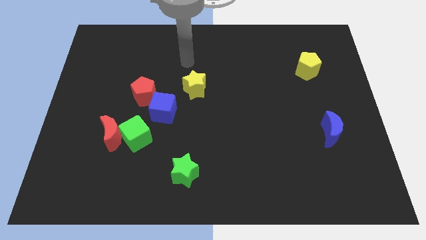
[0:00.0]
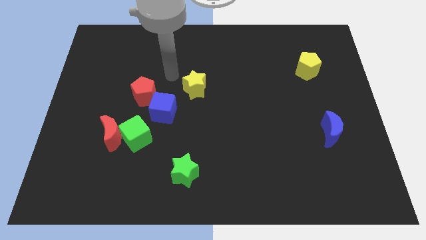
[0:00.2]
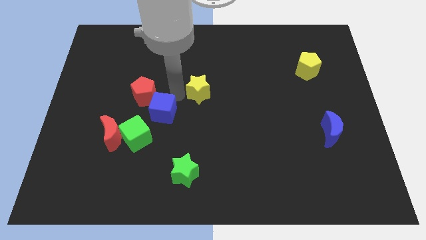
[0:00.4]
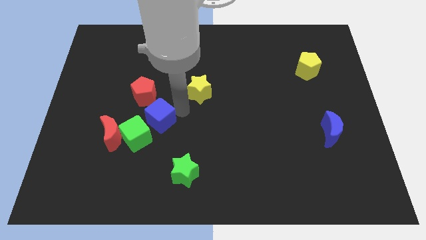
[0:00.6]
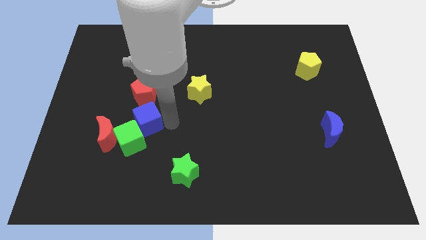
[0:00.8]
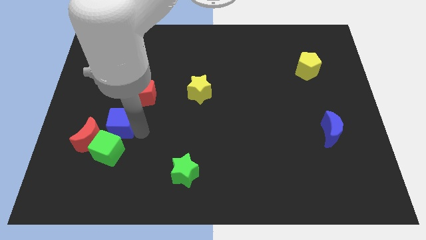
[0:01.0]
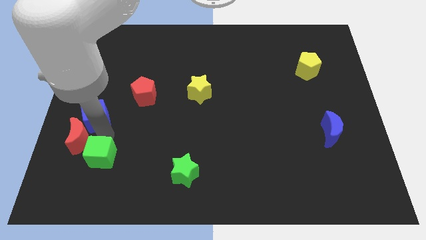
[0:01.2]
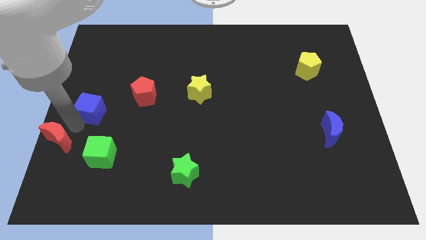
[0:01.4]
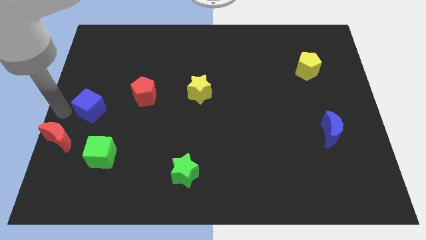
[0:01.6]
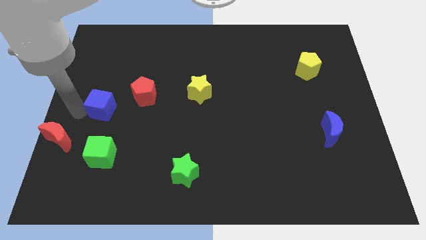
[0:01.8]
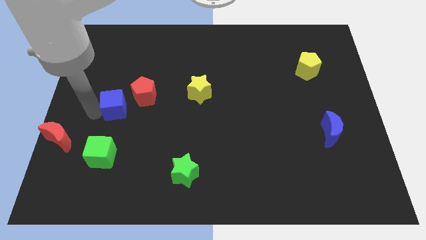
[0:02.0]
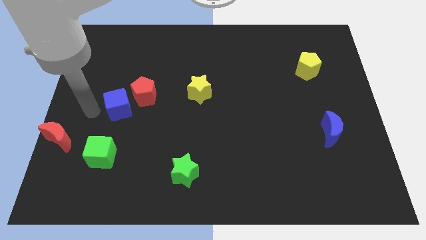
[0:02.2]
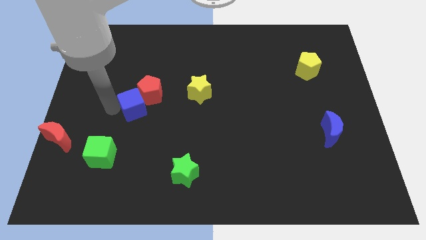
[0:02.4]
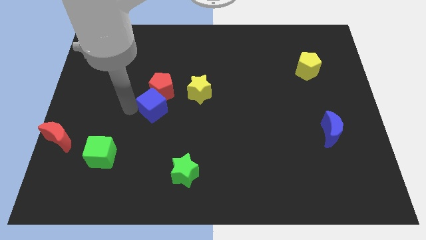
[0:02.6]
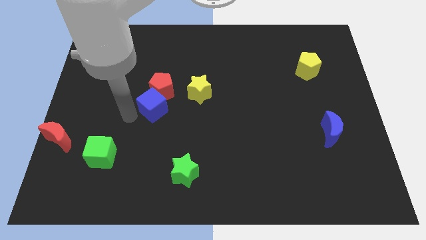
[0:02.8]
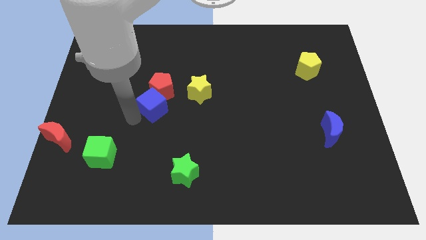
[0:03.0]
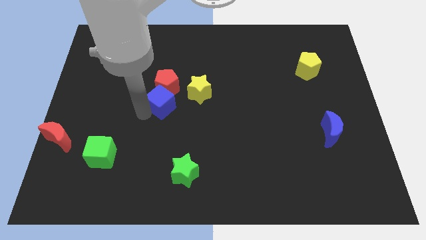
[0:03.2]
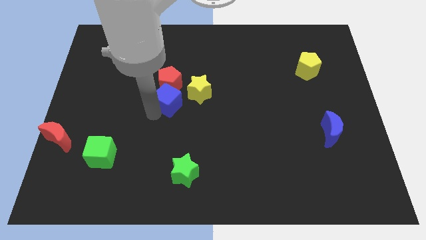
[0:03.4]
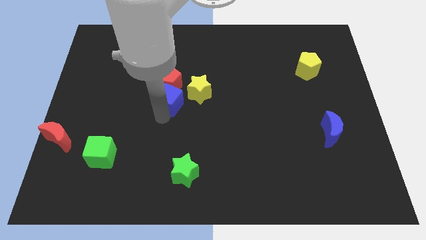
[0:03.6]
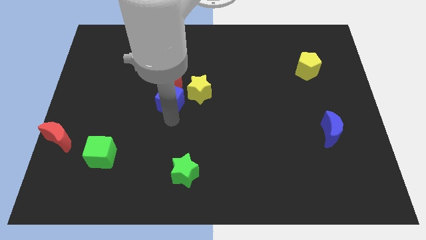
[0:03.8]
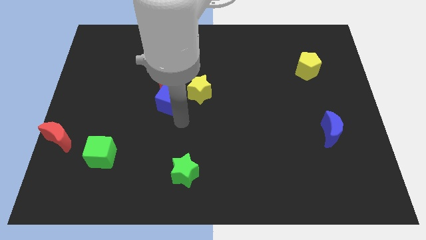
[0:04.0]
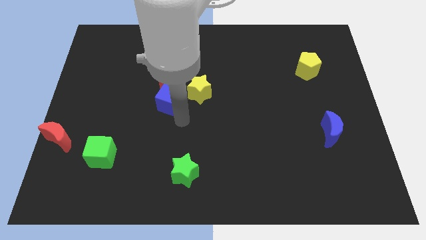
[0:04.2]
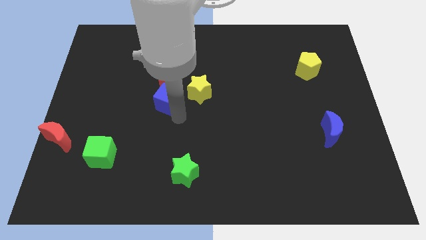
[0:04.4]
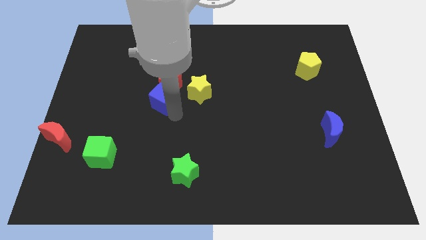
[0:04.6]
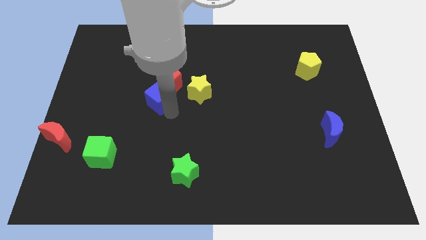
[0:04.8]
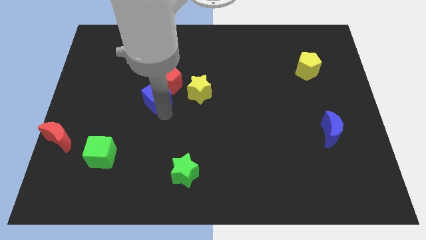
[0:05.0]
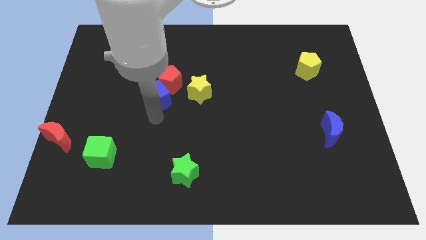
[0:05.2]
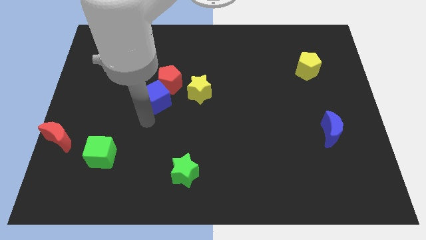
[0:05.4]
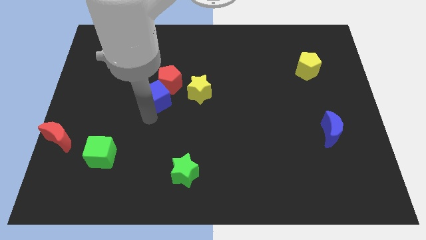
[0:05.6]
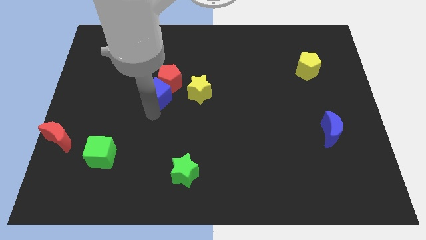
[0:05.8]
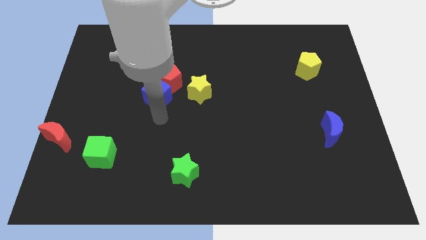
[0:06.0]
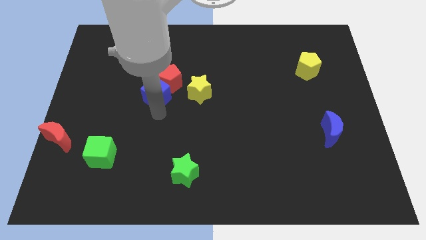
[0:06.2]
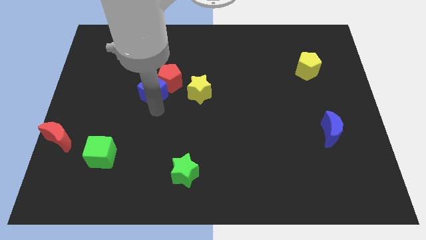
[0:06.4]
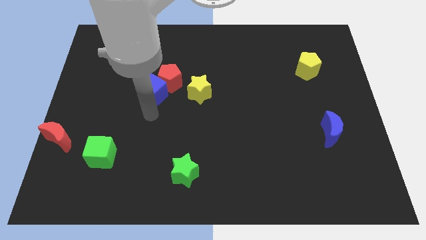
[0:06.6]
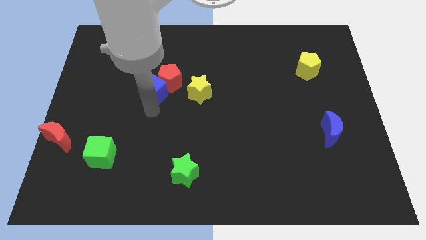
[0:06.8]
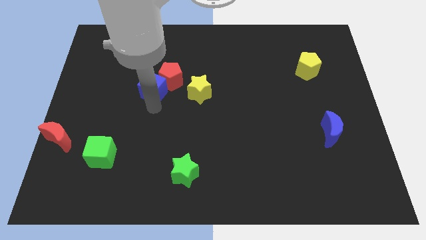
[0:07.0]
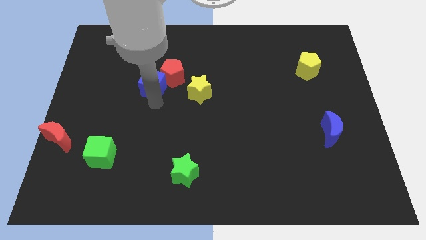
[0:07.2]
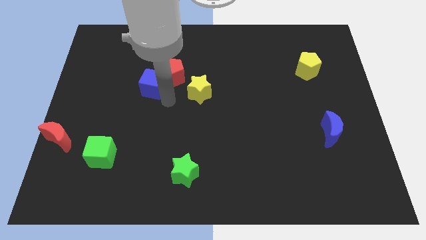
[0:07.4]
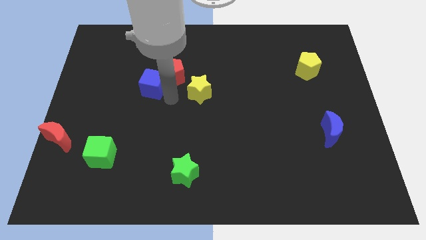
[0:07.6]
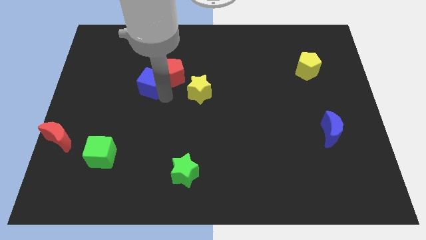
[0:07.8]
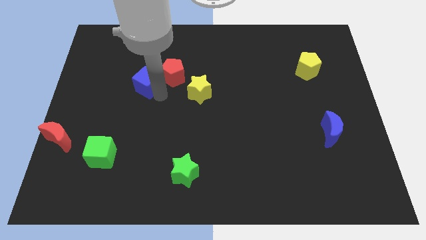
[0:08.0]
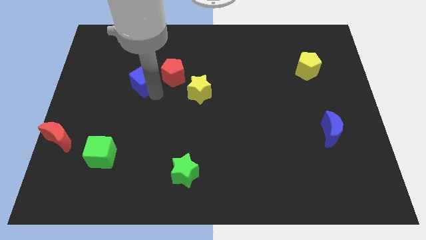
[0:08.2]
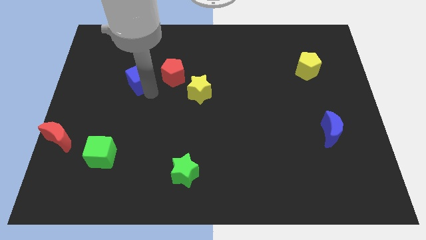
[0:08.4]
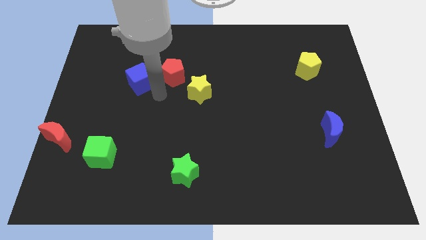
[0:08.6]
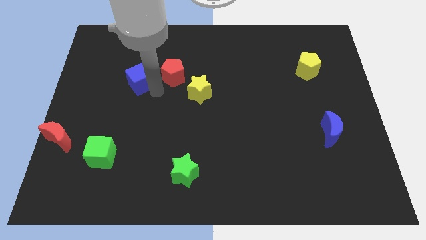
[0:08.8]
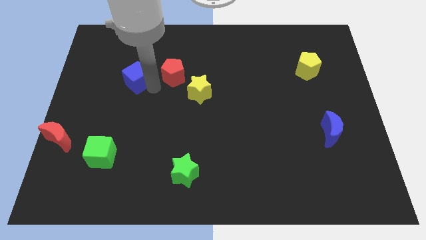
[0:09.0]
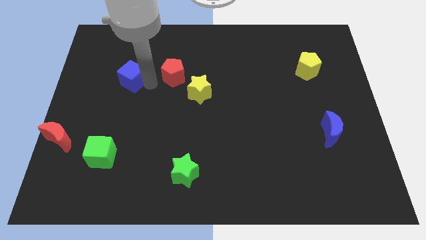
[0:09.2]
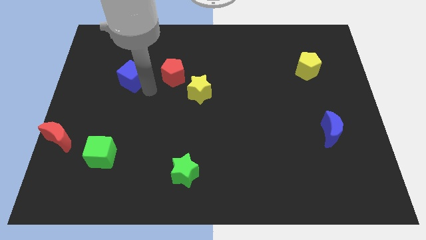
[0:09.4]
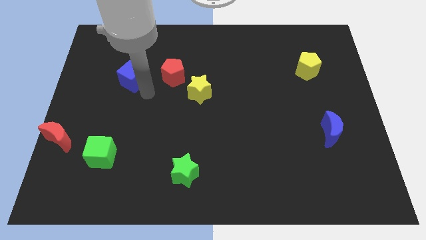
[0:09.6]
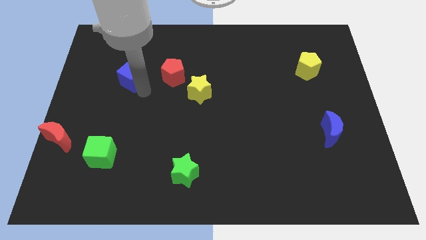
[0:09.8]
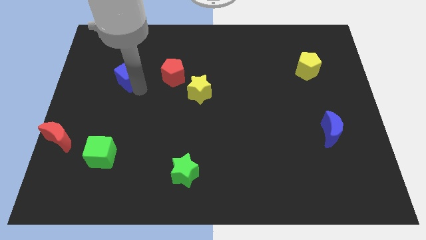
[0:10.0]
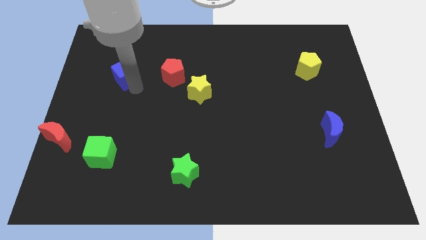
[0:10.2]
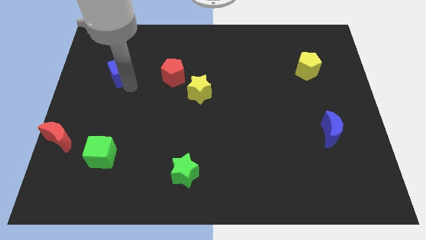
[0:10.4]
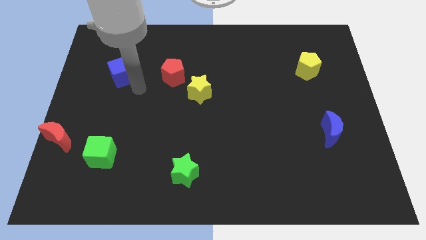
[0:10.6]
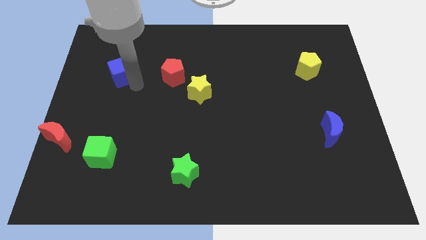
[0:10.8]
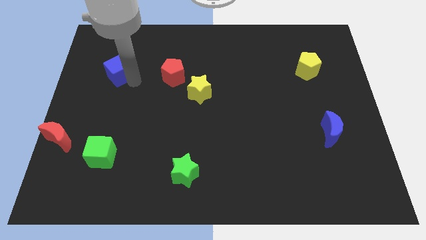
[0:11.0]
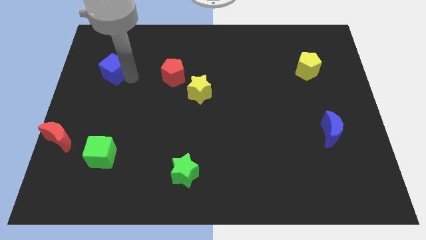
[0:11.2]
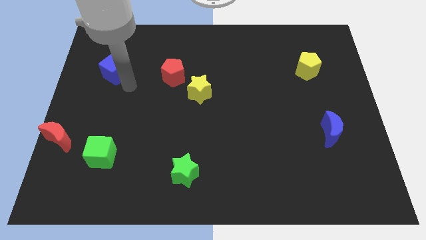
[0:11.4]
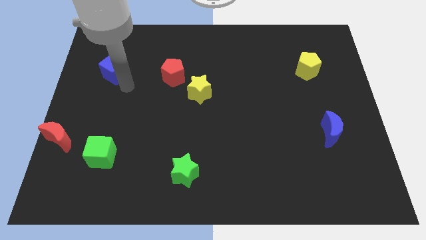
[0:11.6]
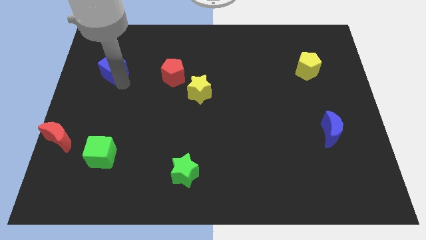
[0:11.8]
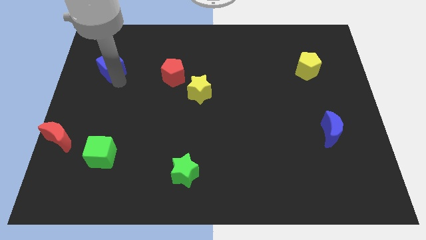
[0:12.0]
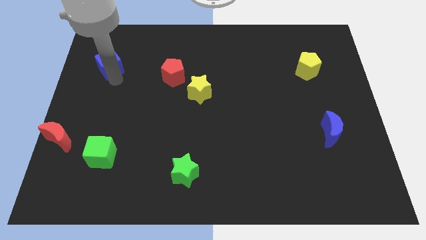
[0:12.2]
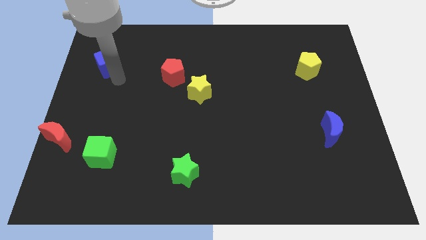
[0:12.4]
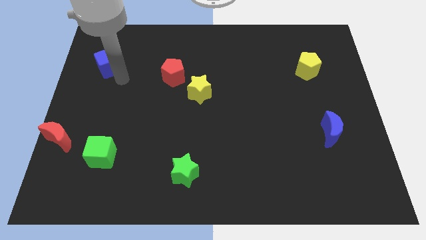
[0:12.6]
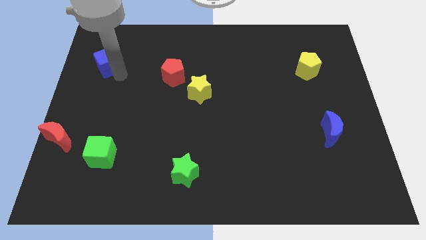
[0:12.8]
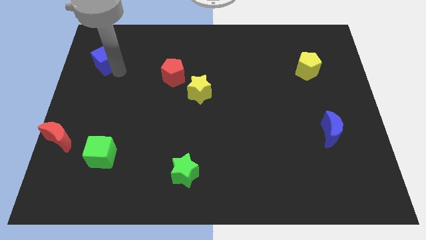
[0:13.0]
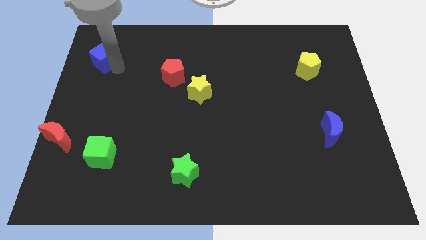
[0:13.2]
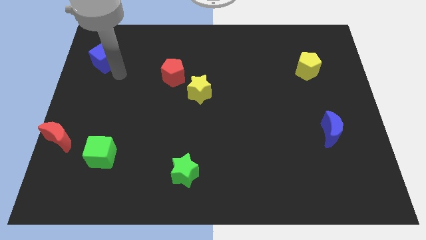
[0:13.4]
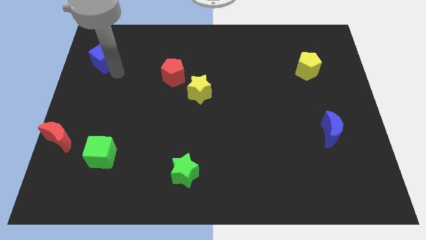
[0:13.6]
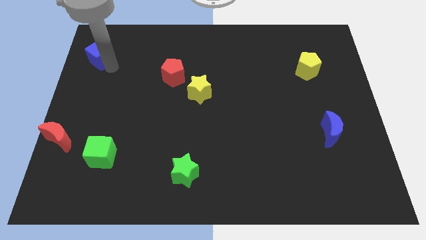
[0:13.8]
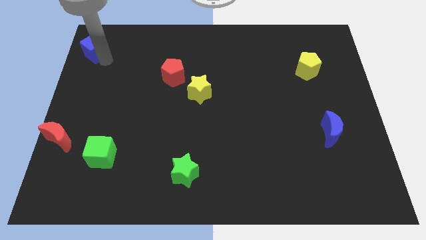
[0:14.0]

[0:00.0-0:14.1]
put the blue cube to the upper left corner
